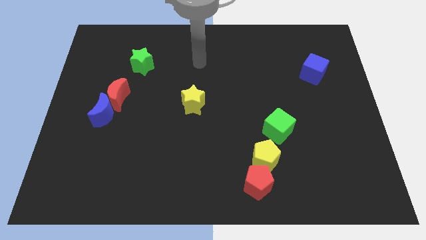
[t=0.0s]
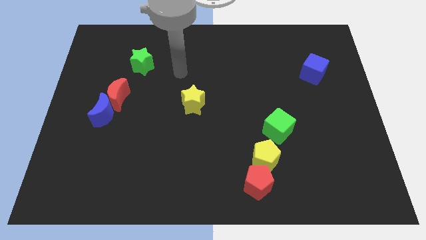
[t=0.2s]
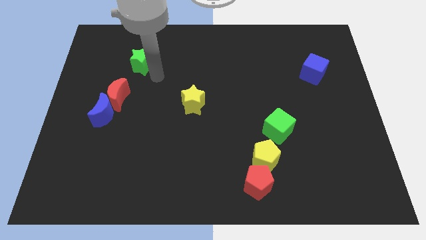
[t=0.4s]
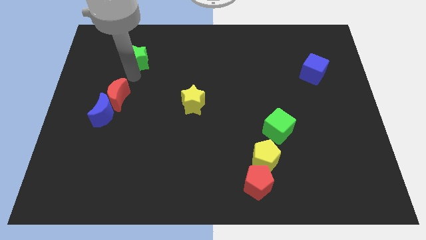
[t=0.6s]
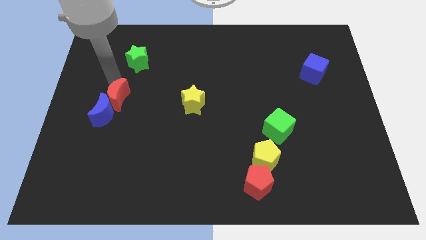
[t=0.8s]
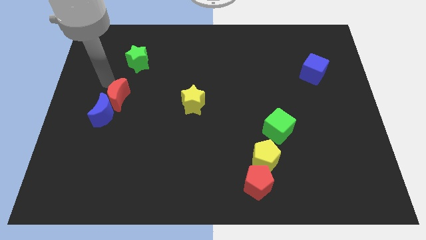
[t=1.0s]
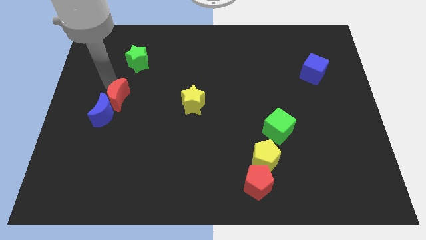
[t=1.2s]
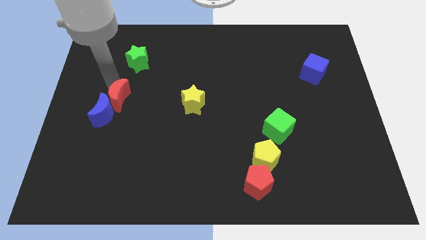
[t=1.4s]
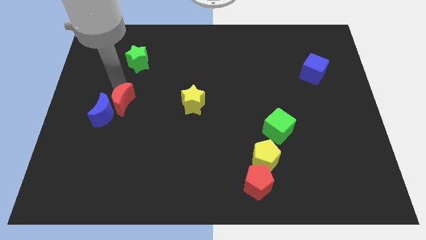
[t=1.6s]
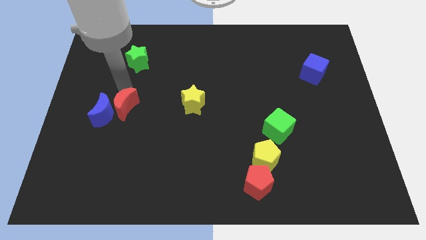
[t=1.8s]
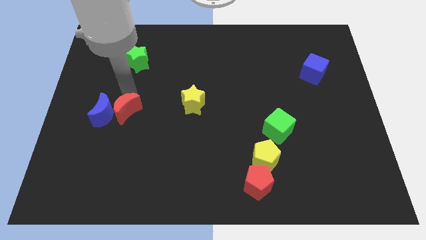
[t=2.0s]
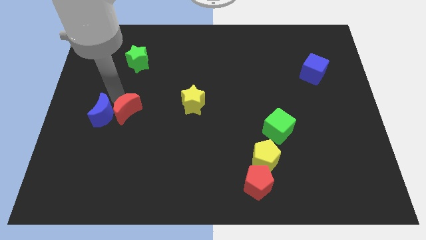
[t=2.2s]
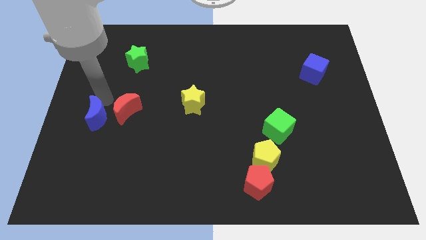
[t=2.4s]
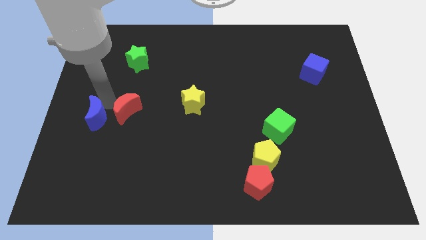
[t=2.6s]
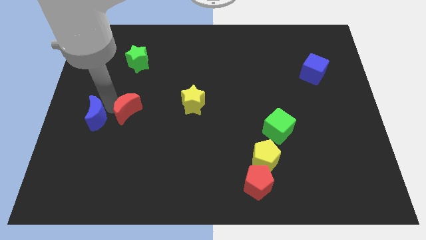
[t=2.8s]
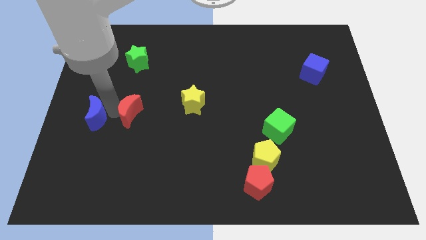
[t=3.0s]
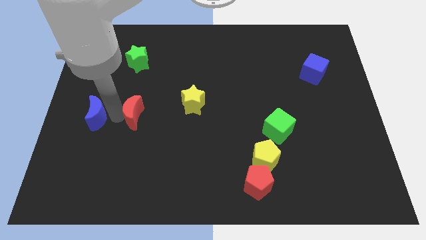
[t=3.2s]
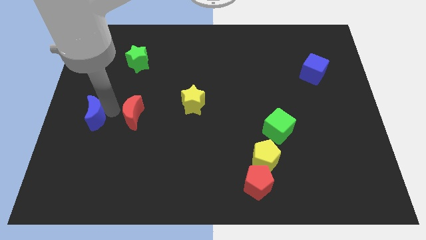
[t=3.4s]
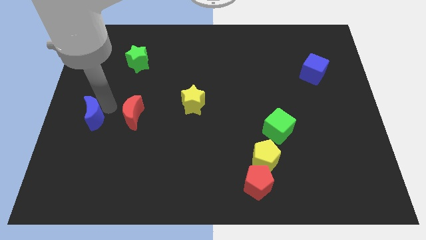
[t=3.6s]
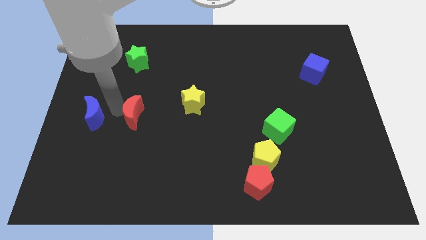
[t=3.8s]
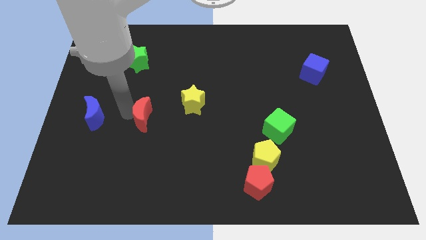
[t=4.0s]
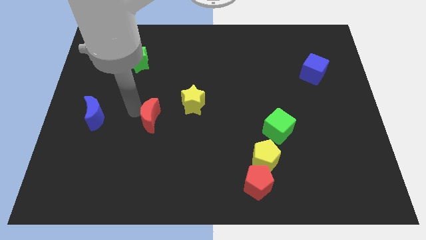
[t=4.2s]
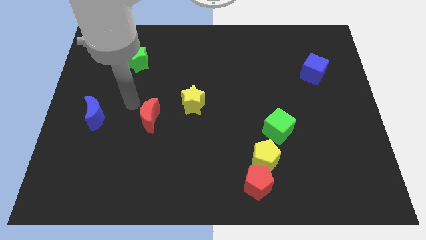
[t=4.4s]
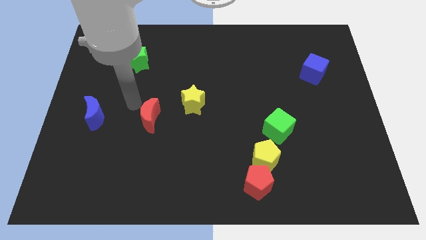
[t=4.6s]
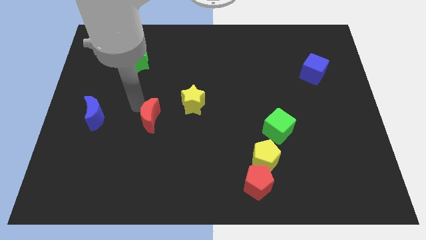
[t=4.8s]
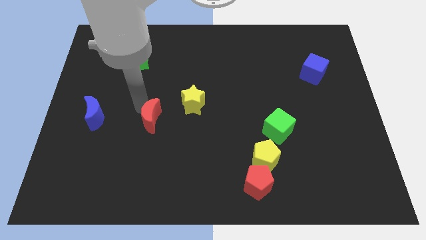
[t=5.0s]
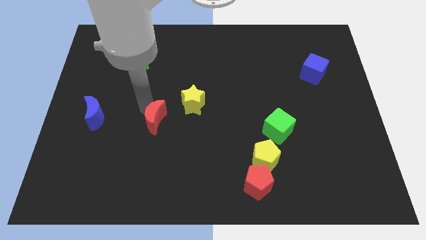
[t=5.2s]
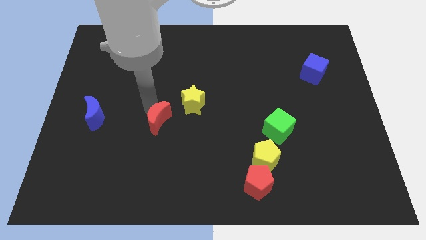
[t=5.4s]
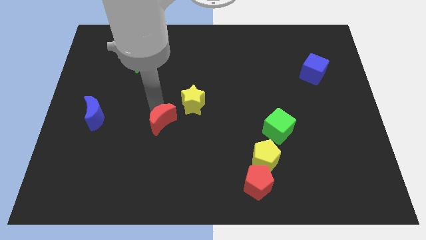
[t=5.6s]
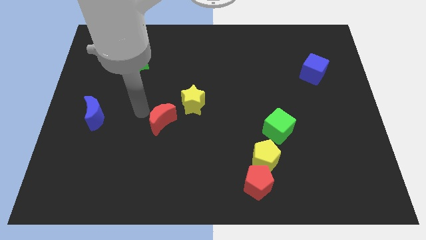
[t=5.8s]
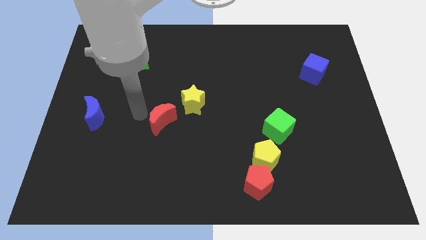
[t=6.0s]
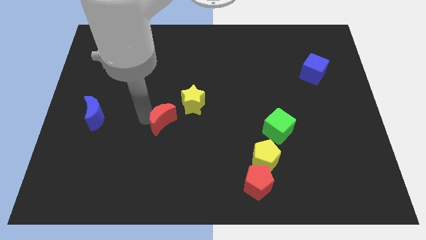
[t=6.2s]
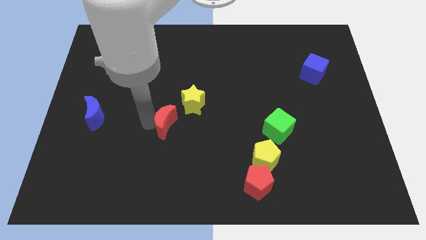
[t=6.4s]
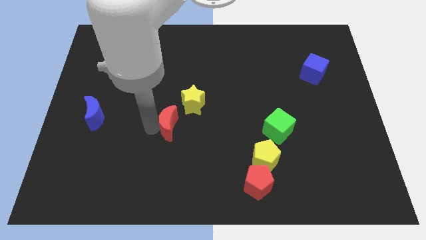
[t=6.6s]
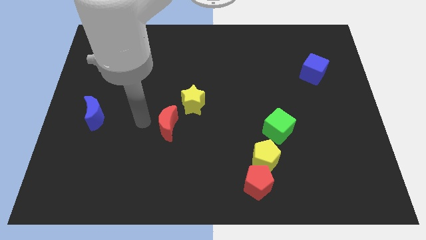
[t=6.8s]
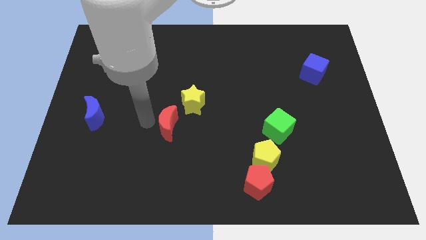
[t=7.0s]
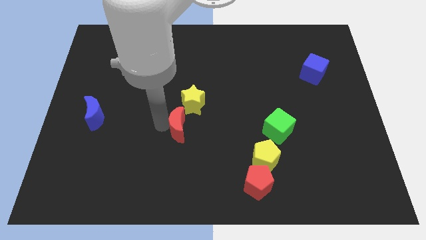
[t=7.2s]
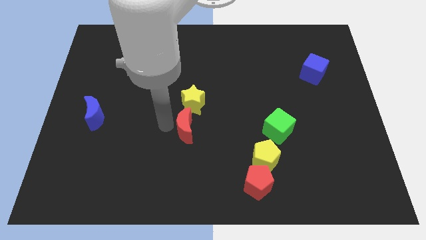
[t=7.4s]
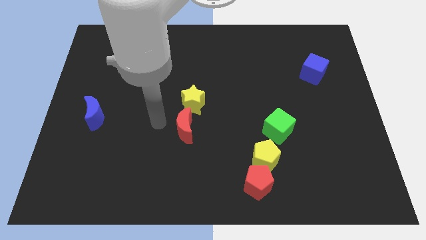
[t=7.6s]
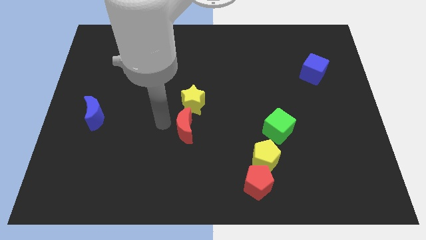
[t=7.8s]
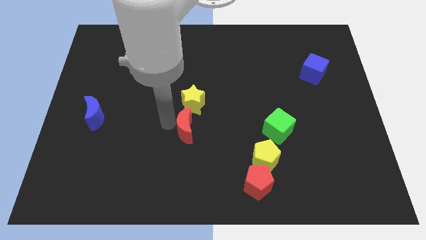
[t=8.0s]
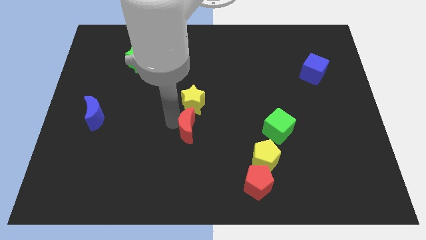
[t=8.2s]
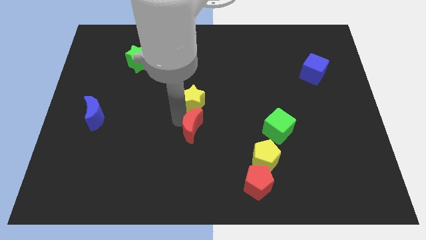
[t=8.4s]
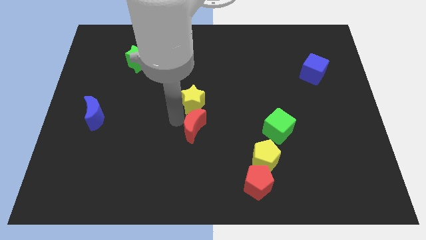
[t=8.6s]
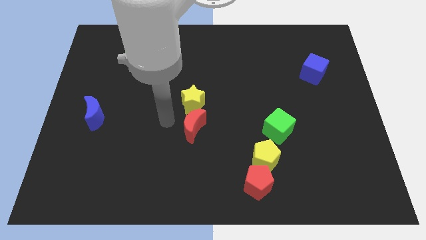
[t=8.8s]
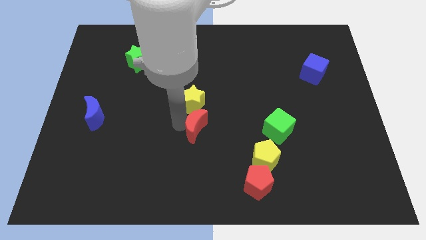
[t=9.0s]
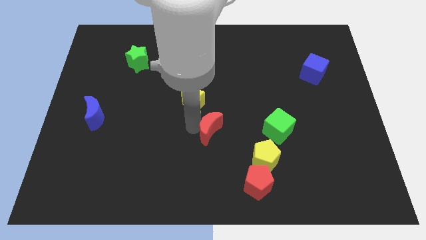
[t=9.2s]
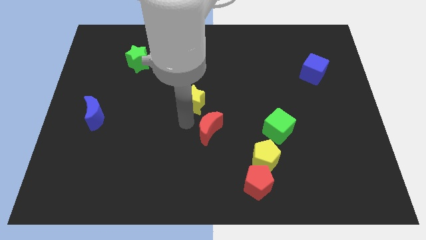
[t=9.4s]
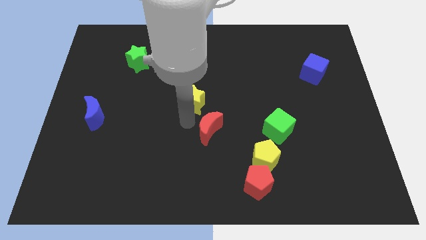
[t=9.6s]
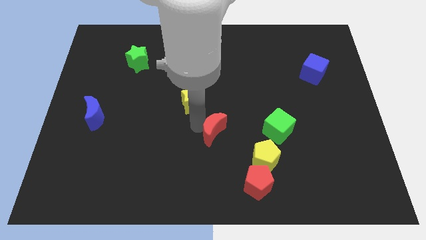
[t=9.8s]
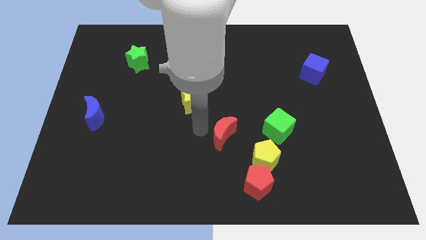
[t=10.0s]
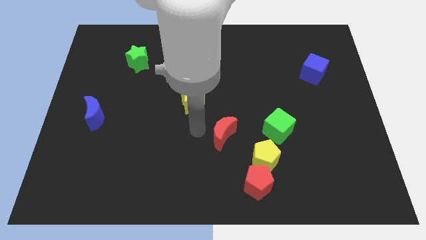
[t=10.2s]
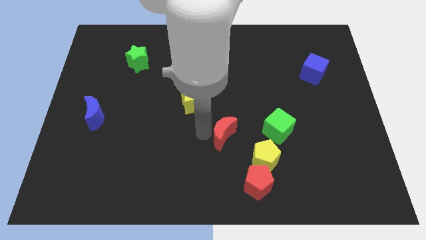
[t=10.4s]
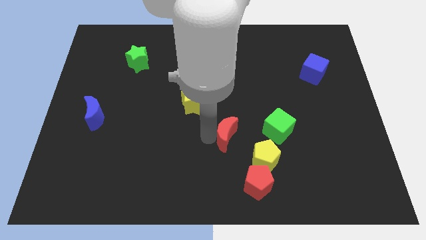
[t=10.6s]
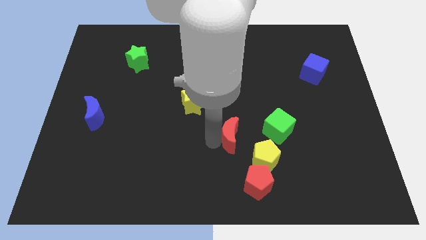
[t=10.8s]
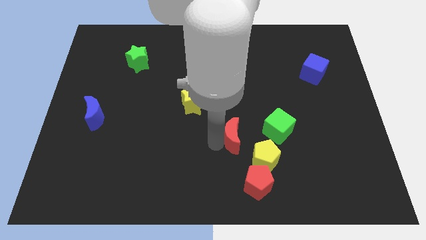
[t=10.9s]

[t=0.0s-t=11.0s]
put the red moon to the top of the red pentagon

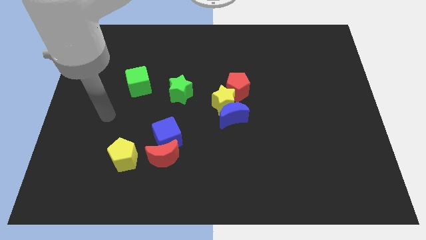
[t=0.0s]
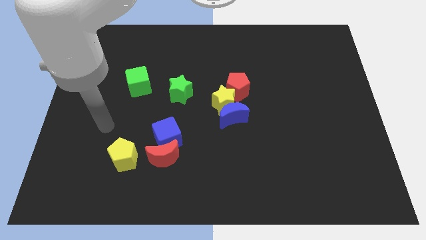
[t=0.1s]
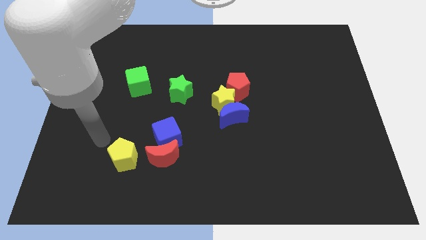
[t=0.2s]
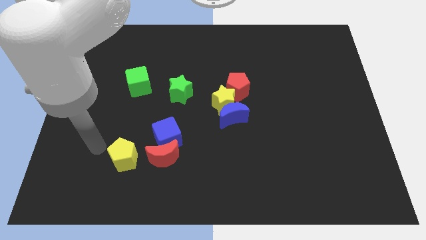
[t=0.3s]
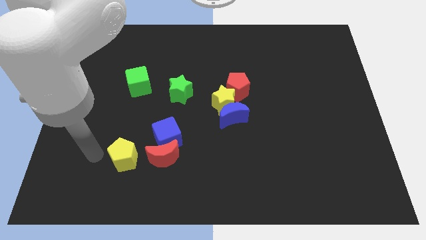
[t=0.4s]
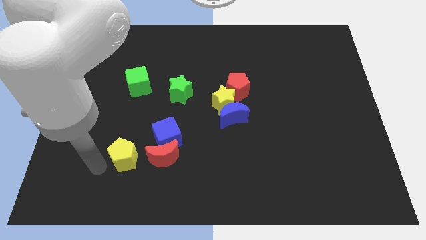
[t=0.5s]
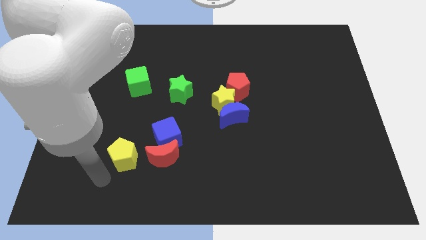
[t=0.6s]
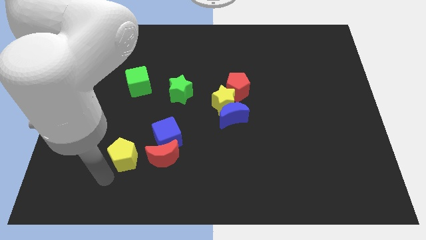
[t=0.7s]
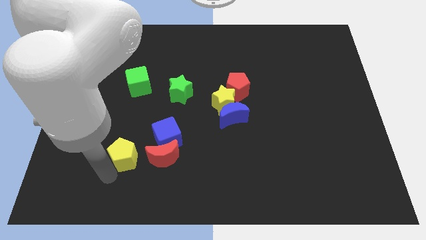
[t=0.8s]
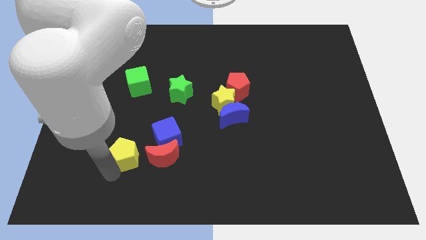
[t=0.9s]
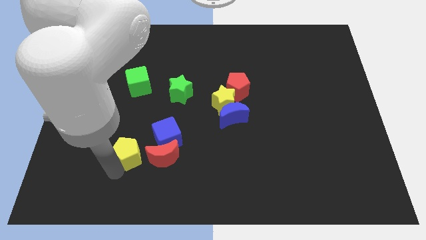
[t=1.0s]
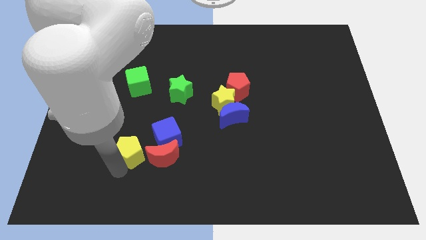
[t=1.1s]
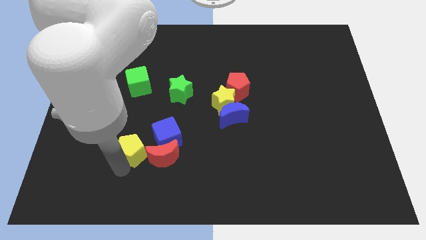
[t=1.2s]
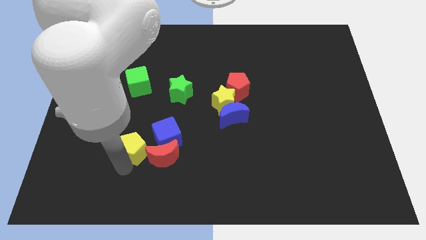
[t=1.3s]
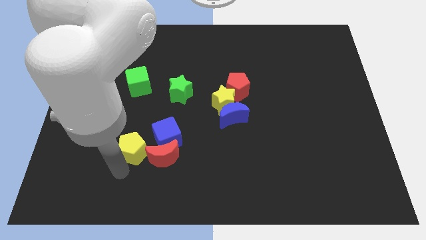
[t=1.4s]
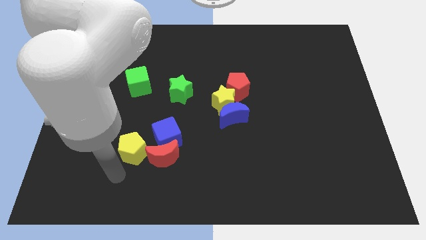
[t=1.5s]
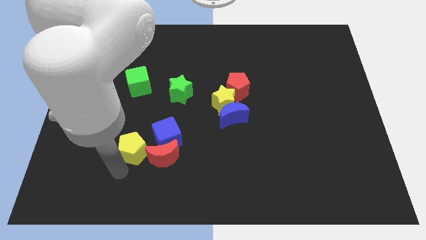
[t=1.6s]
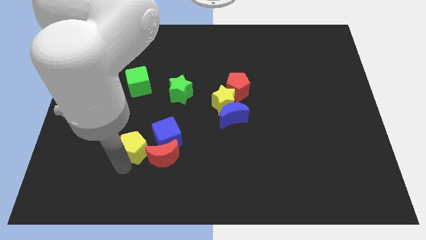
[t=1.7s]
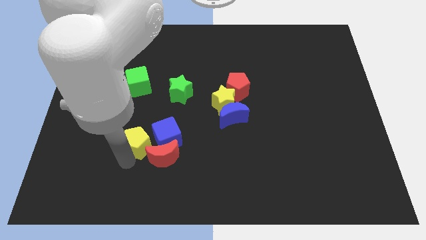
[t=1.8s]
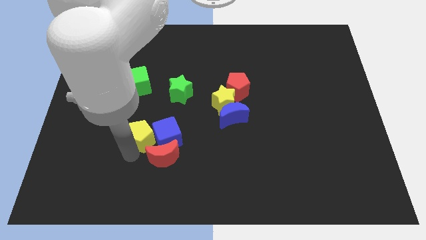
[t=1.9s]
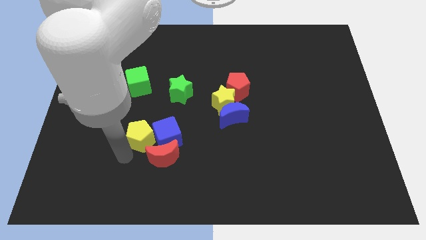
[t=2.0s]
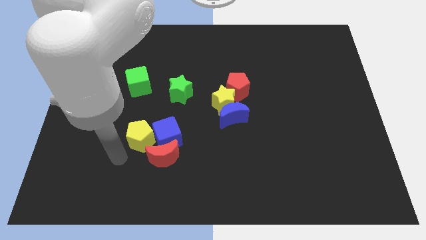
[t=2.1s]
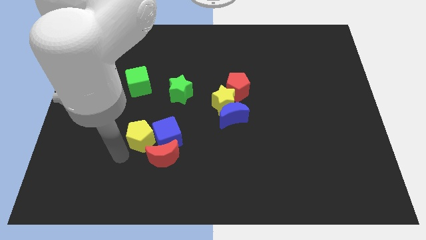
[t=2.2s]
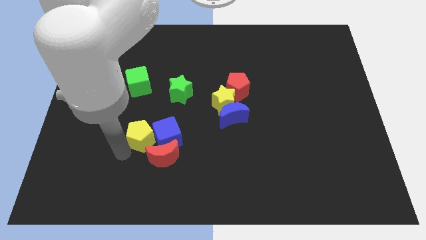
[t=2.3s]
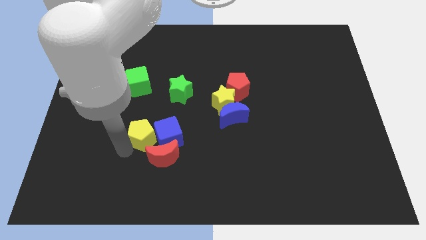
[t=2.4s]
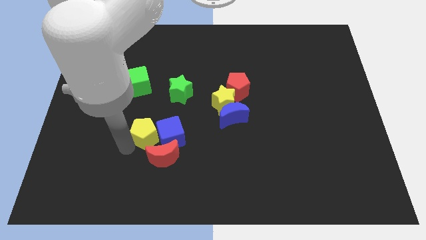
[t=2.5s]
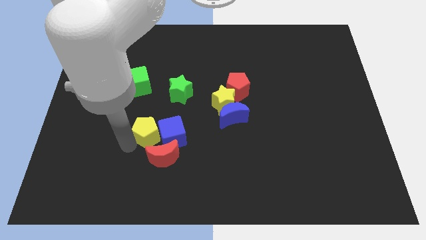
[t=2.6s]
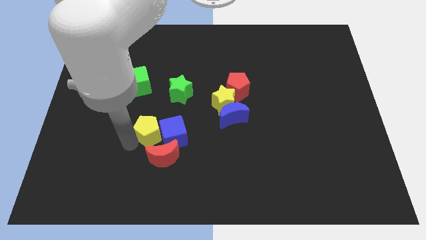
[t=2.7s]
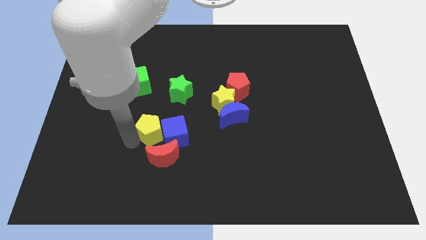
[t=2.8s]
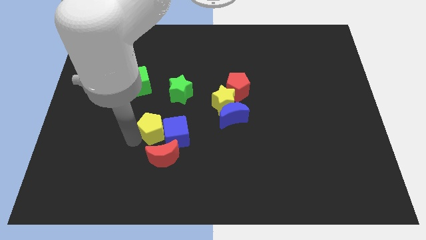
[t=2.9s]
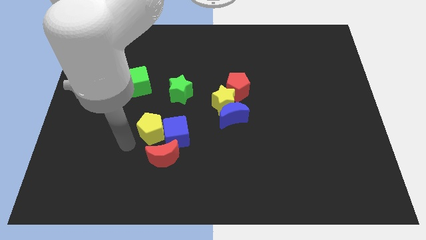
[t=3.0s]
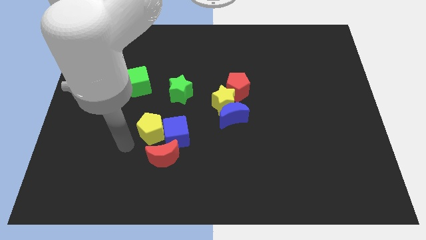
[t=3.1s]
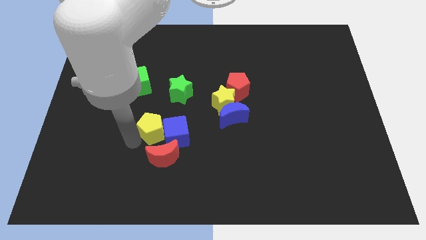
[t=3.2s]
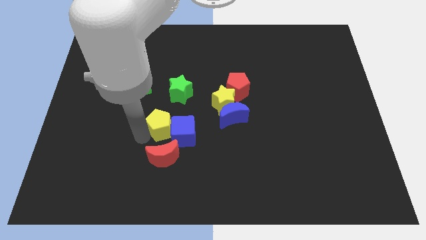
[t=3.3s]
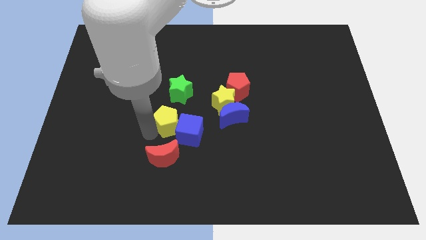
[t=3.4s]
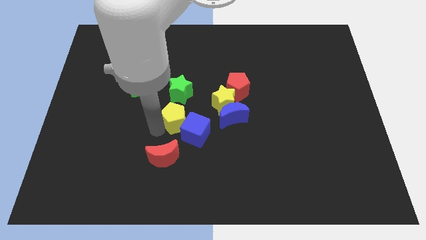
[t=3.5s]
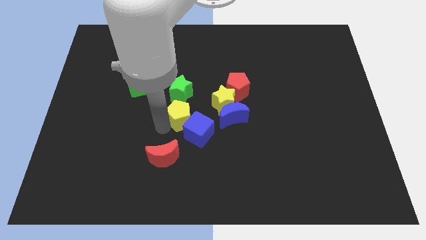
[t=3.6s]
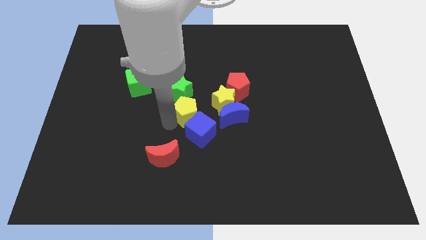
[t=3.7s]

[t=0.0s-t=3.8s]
push the yellow pentagon to the bottom right of the green star
